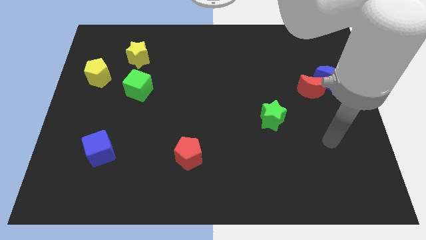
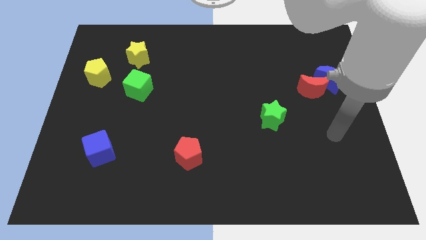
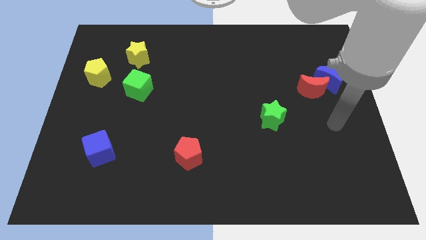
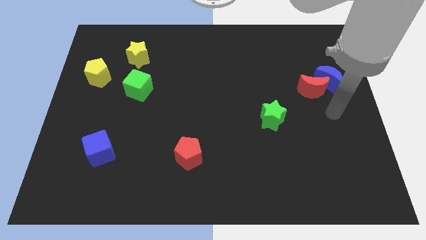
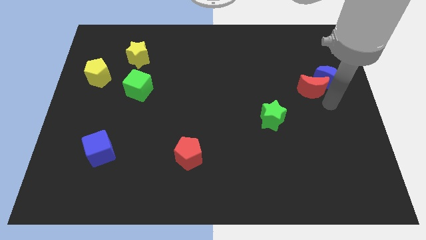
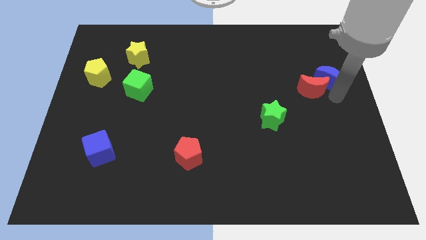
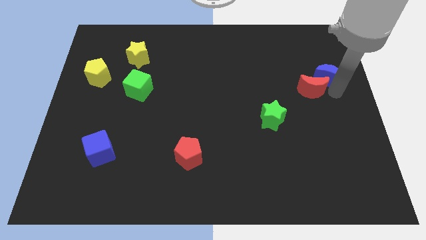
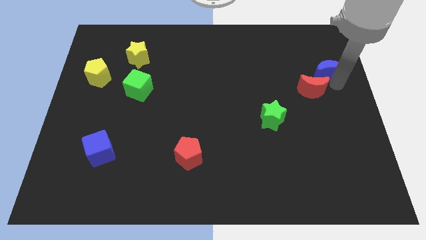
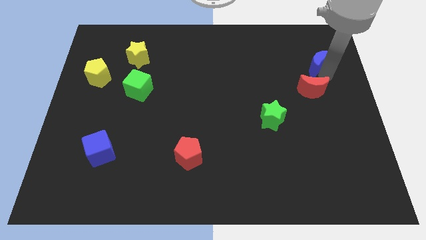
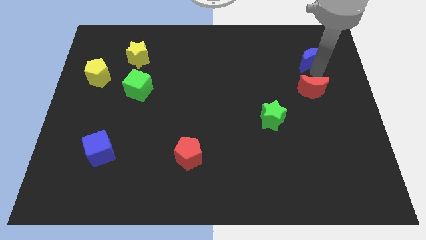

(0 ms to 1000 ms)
separate the red moon from the blue moon

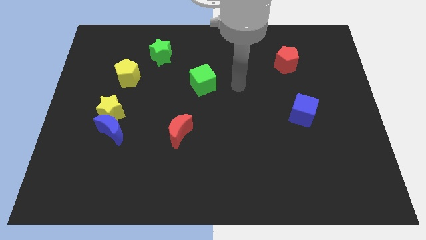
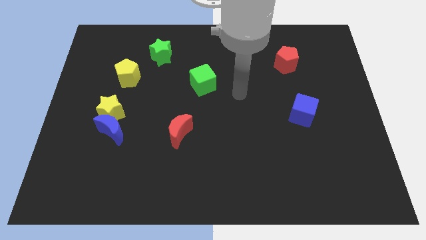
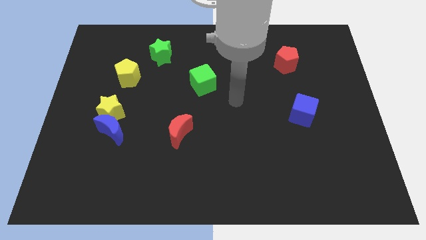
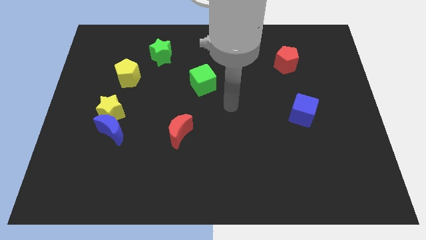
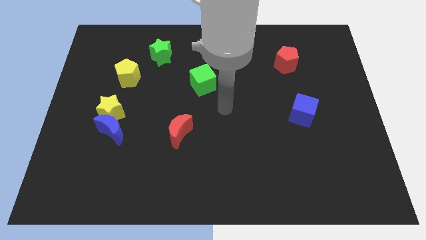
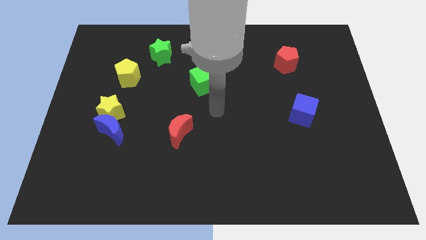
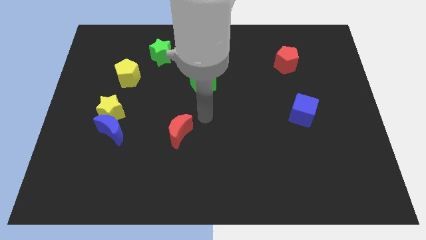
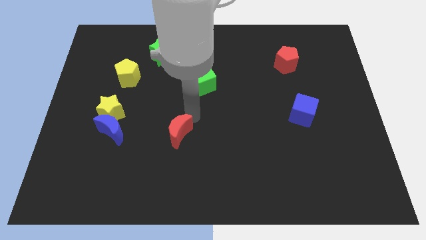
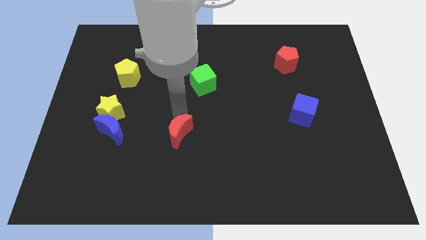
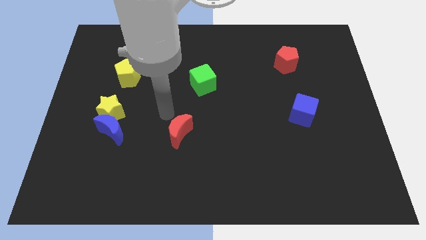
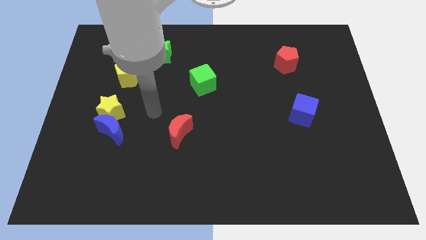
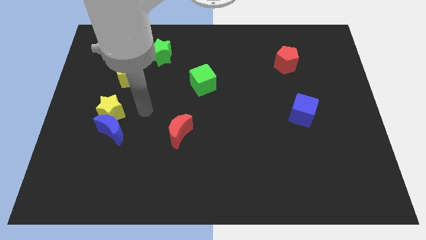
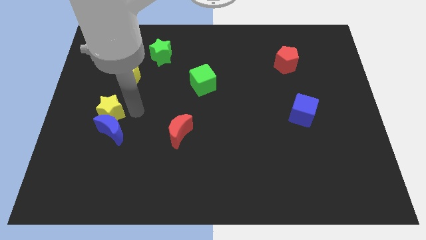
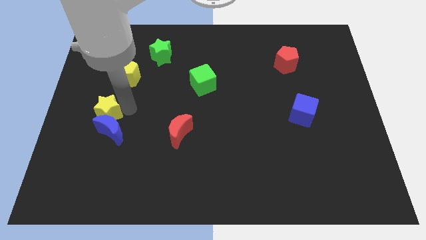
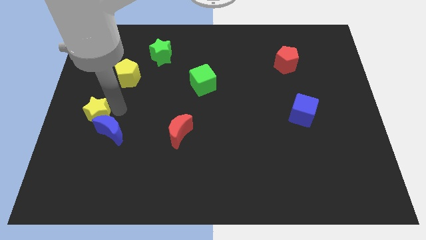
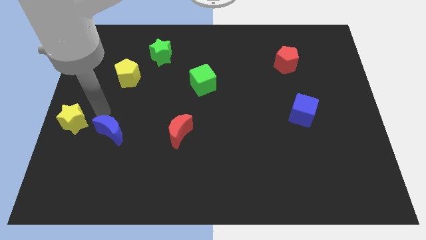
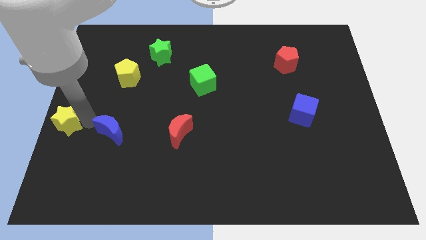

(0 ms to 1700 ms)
move the blue moon away from the yellow star

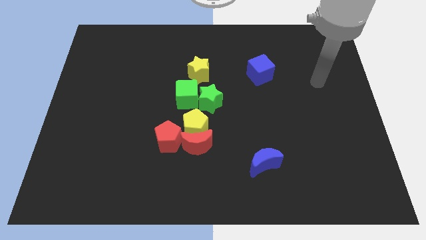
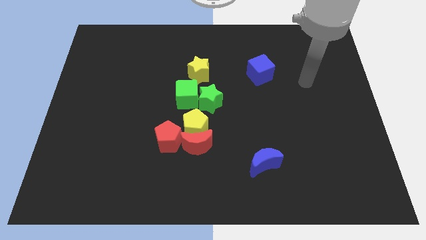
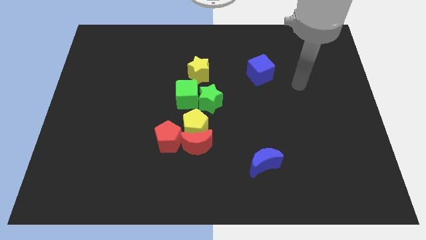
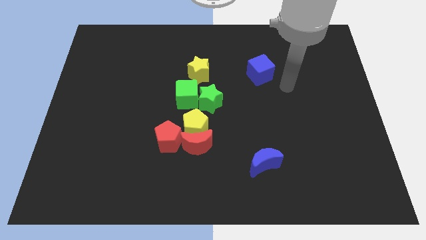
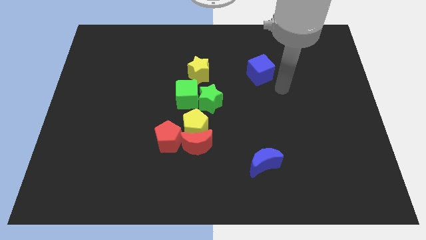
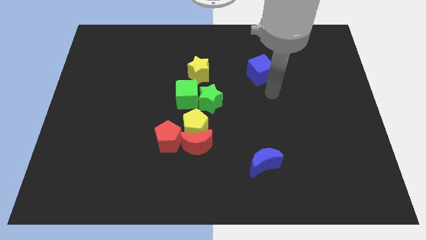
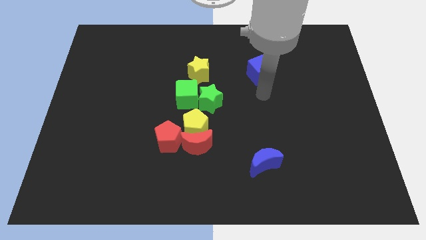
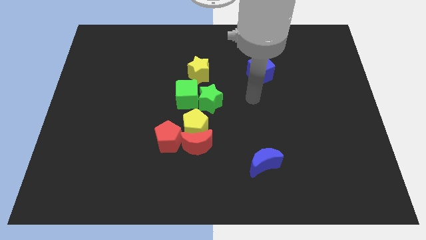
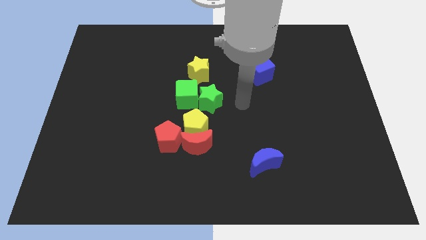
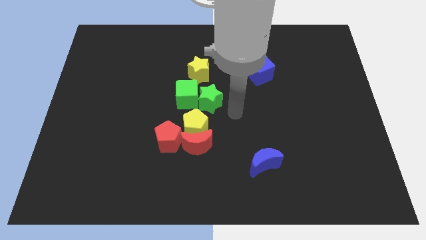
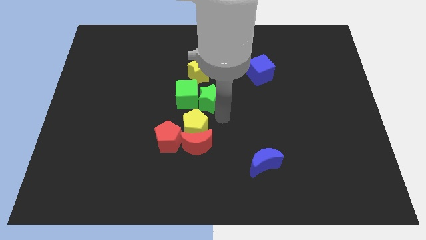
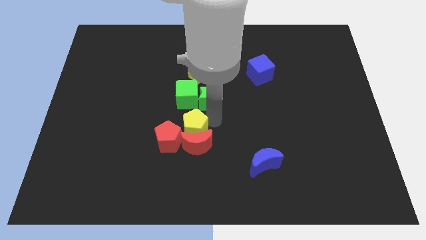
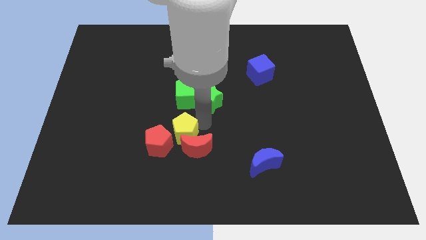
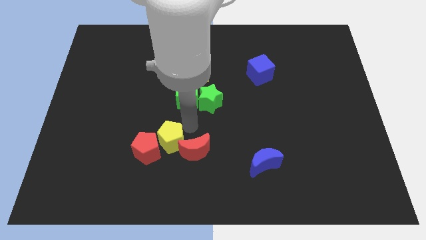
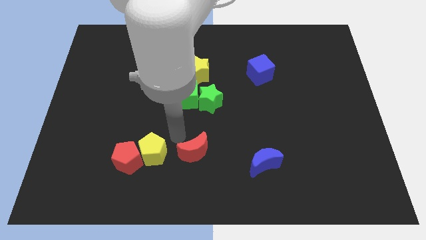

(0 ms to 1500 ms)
move the red moon away from the yellow pentagon and red pentagon

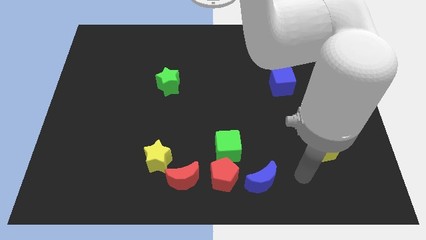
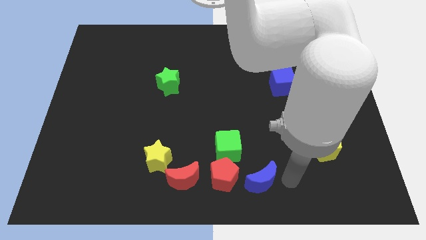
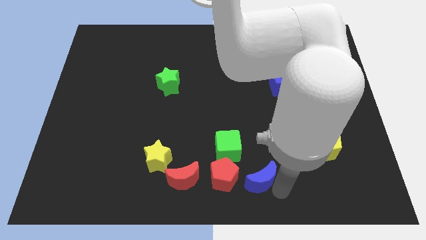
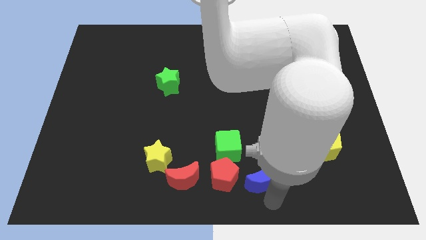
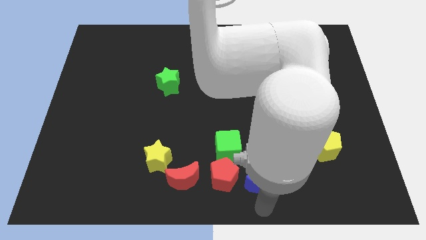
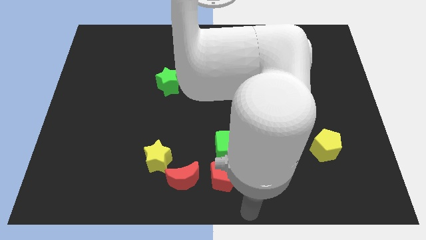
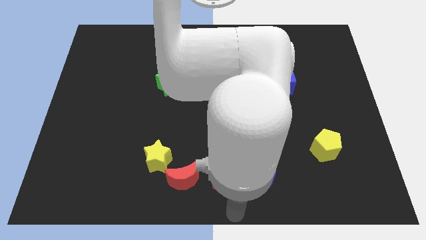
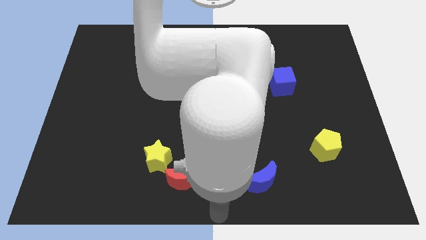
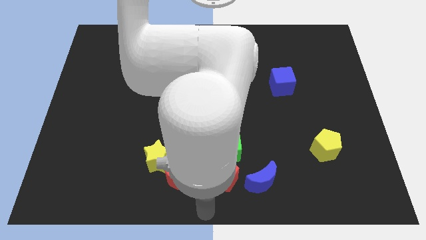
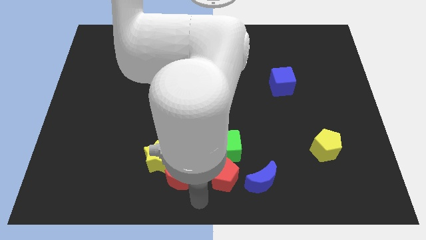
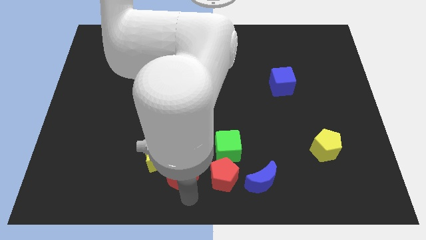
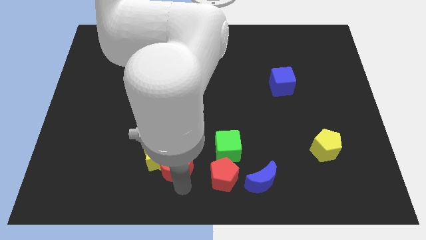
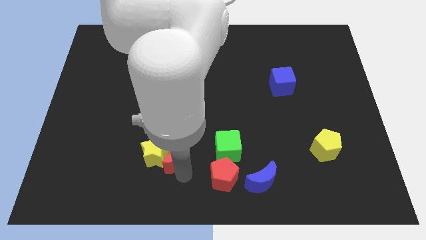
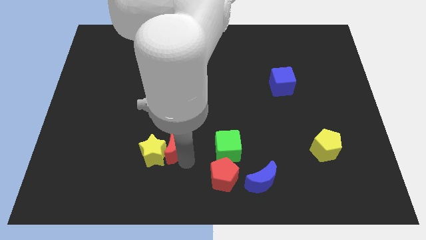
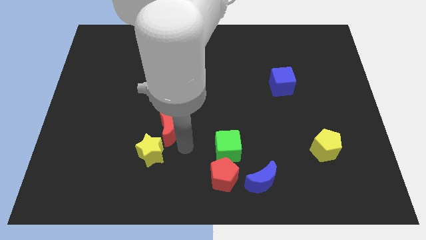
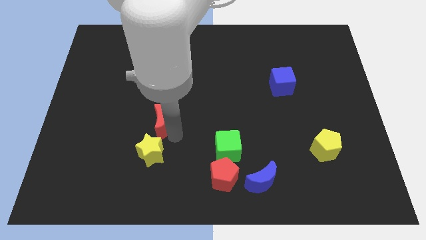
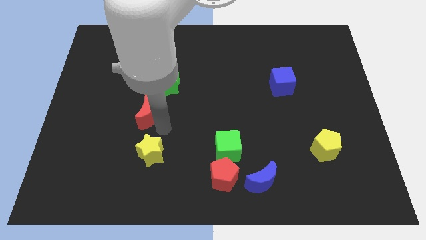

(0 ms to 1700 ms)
move the yellow star away from the red moon

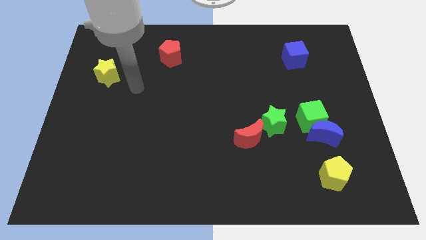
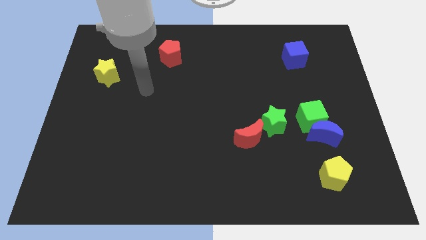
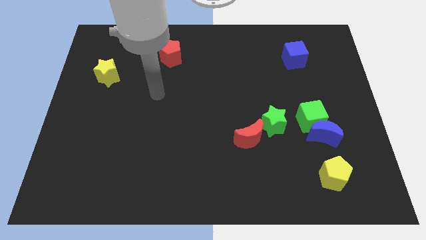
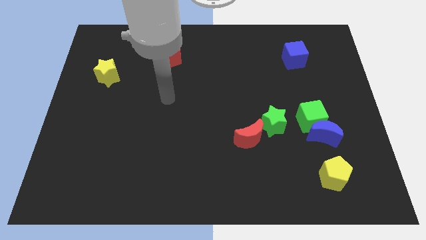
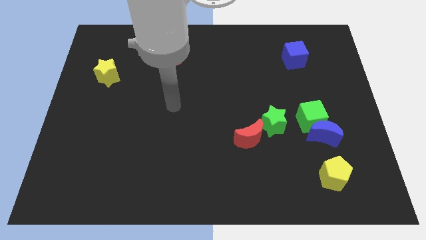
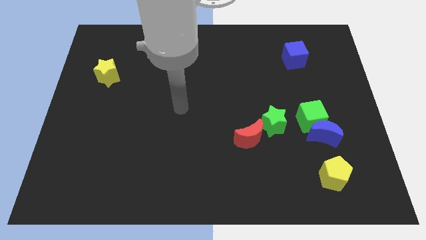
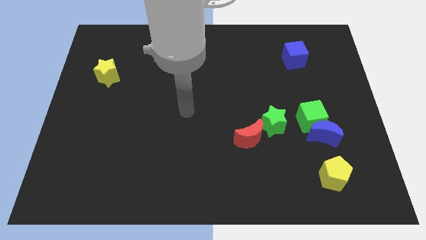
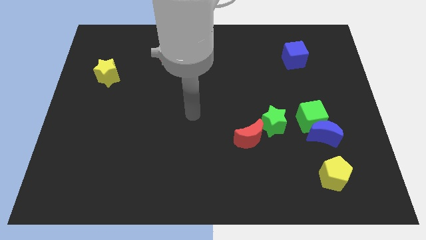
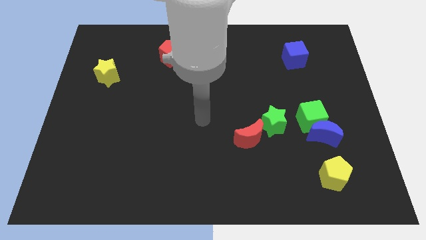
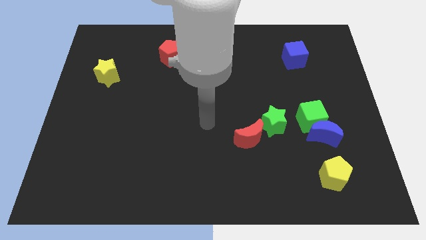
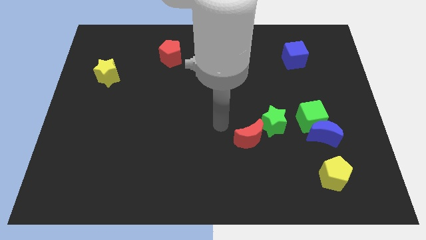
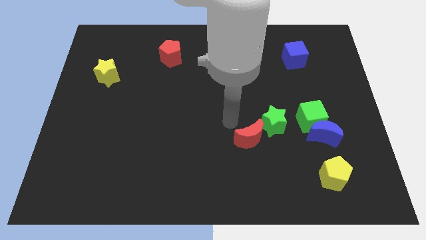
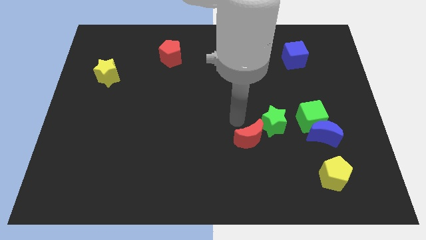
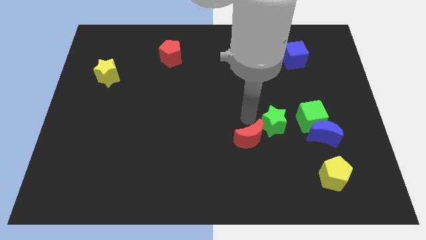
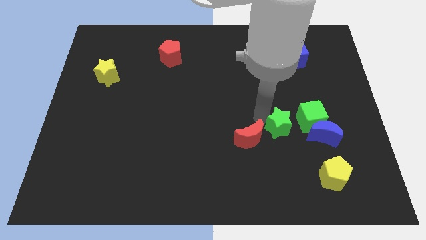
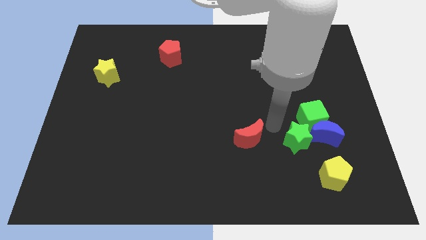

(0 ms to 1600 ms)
move the red moon away from the green star

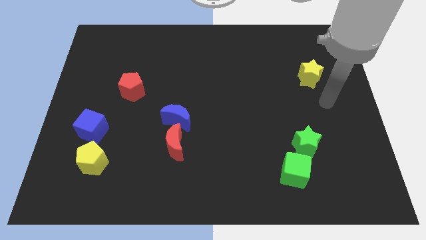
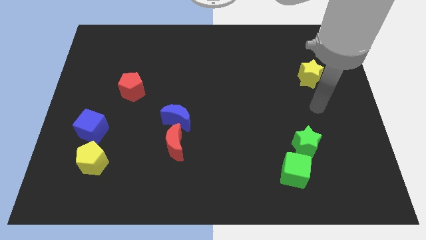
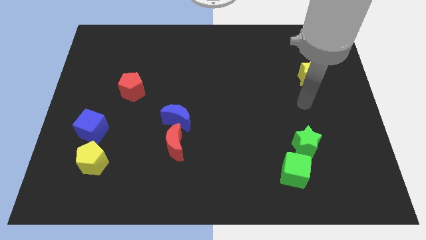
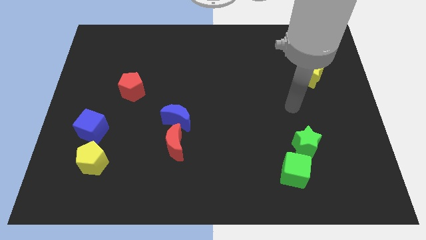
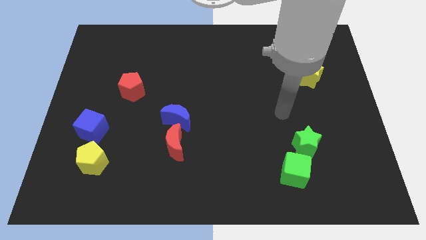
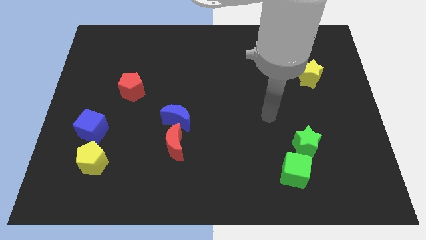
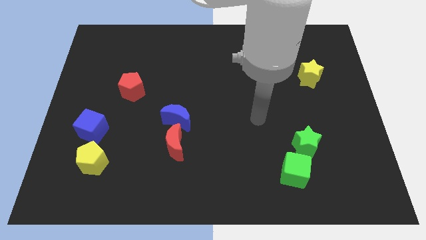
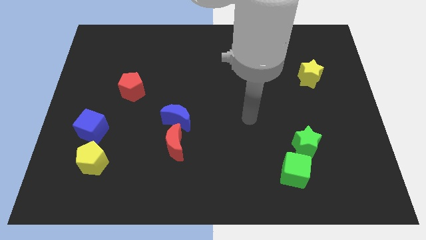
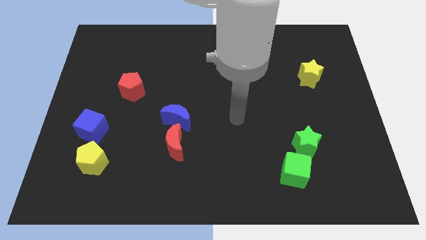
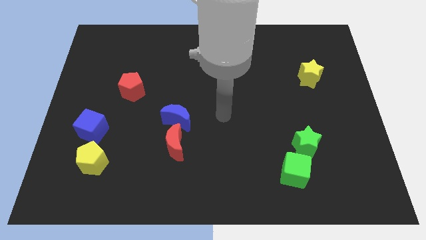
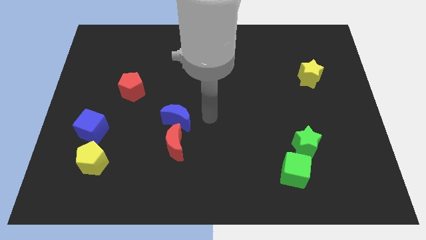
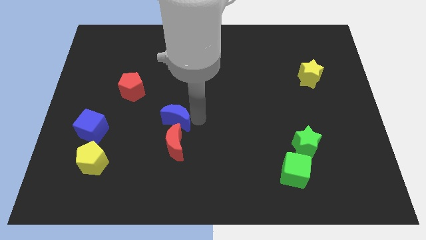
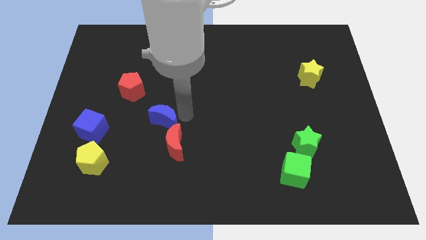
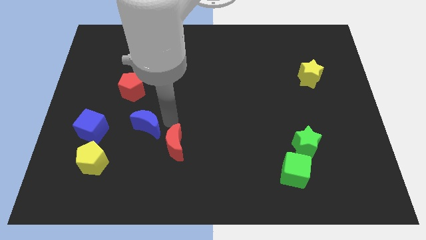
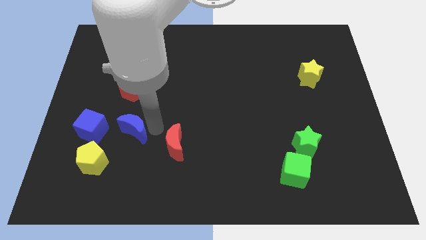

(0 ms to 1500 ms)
move the red moon away from the blue moon

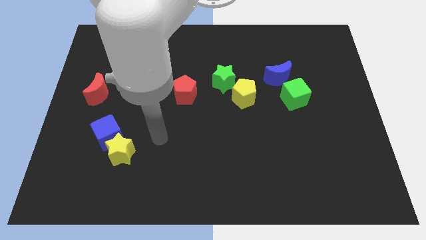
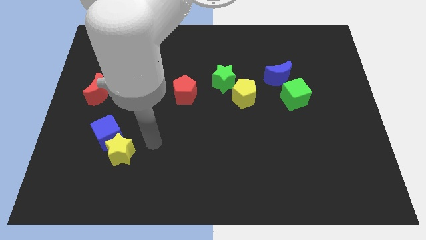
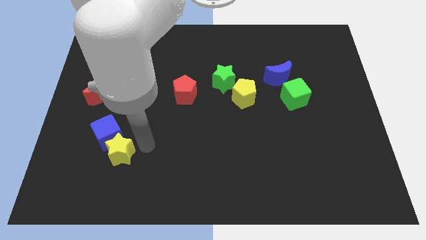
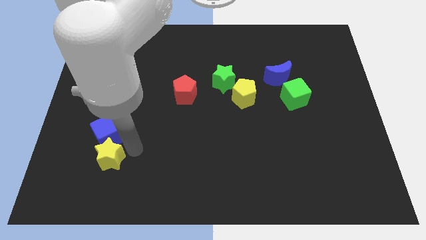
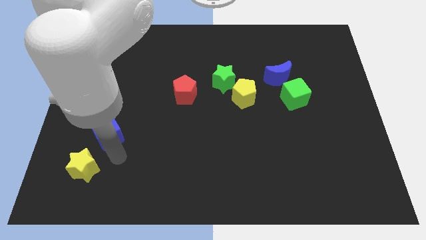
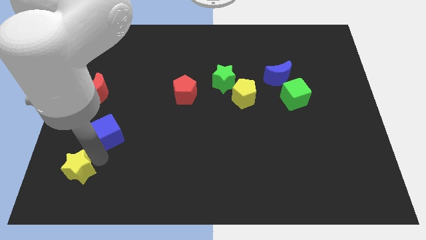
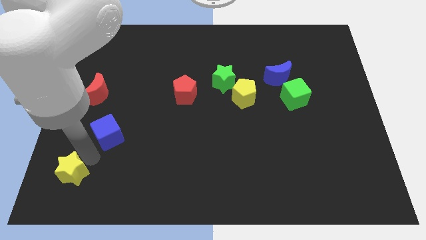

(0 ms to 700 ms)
pull the blue cube apart from the yellow star
